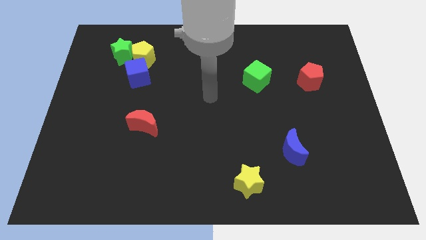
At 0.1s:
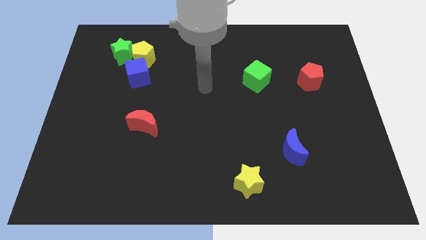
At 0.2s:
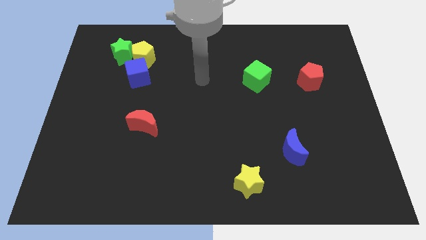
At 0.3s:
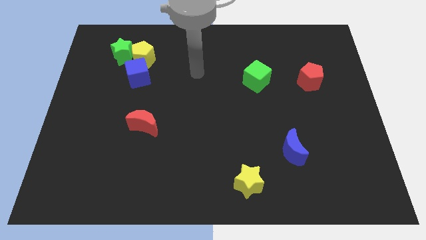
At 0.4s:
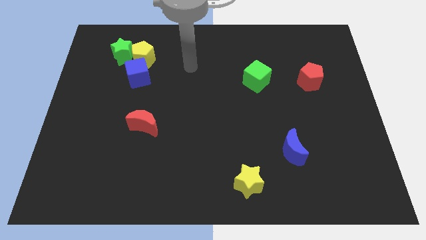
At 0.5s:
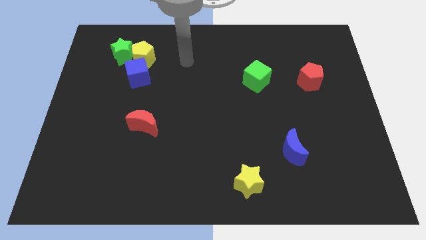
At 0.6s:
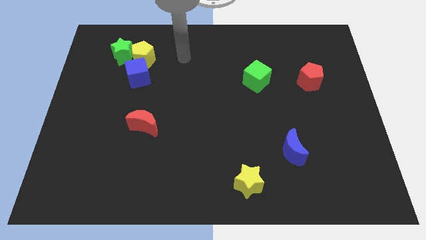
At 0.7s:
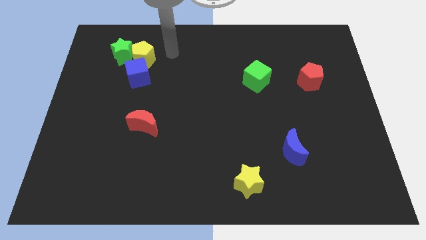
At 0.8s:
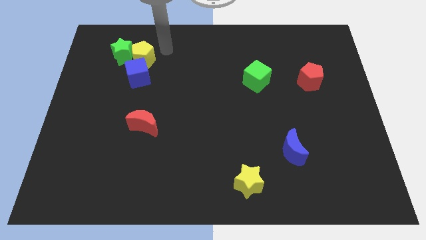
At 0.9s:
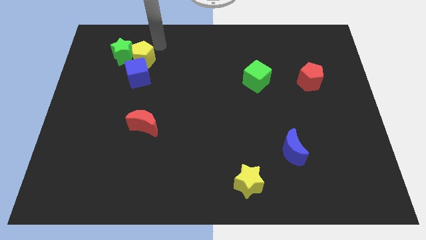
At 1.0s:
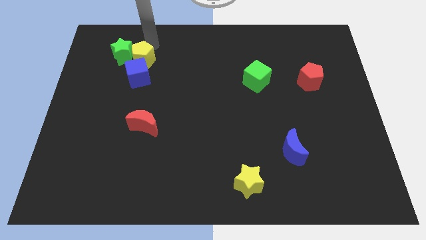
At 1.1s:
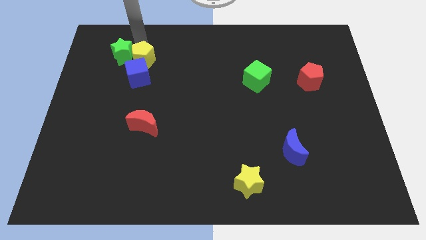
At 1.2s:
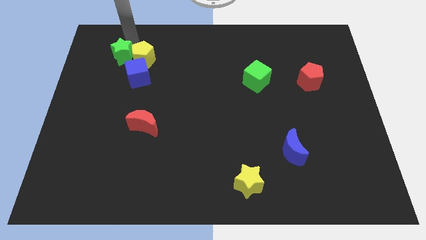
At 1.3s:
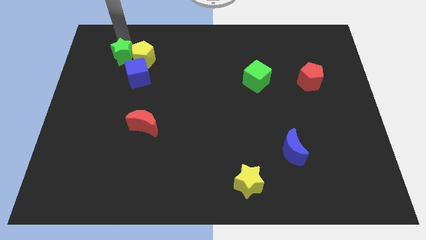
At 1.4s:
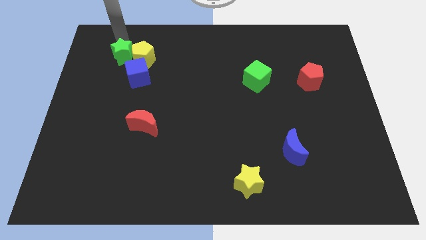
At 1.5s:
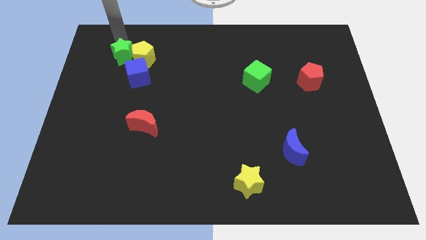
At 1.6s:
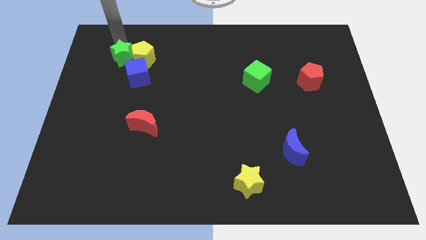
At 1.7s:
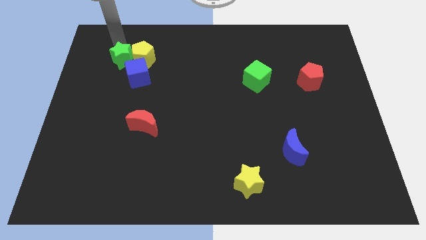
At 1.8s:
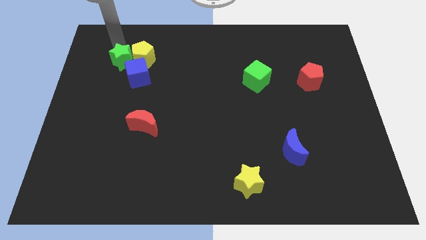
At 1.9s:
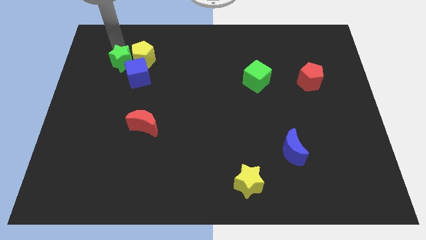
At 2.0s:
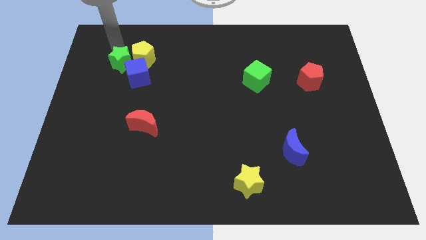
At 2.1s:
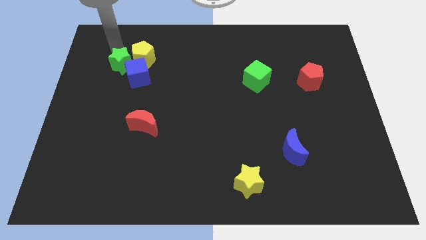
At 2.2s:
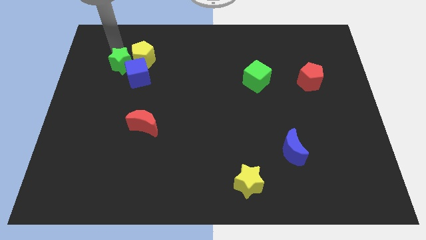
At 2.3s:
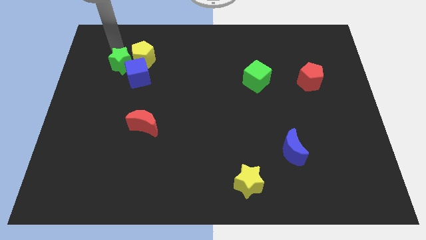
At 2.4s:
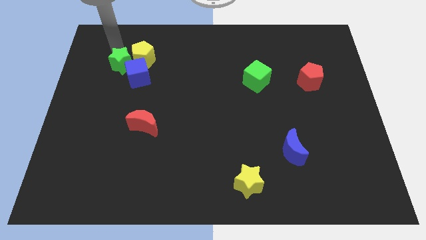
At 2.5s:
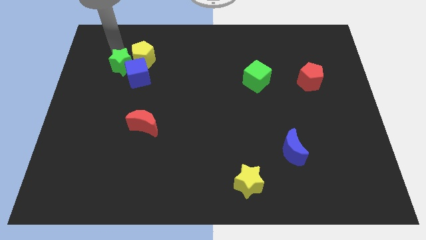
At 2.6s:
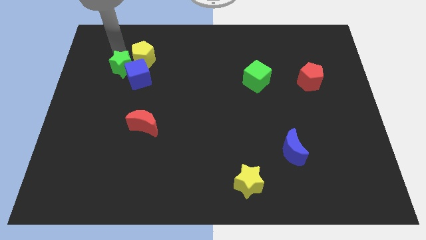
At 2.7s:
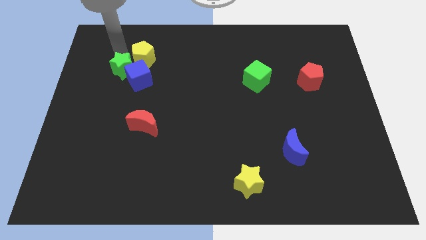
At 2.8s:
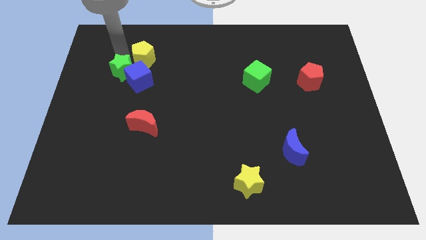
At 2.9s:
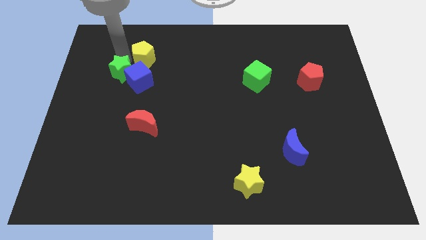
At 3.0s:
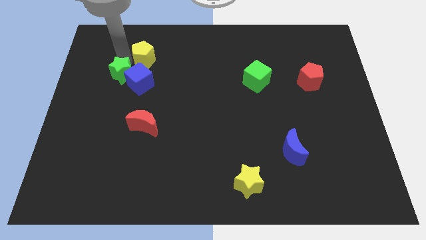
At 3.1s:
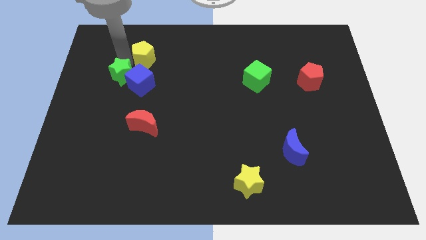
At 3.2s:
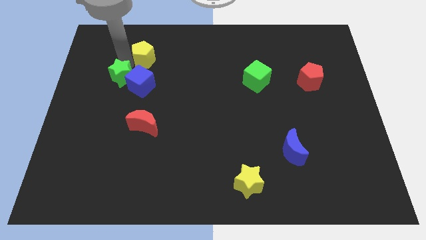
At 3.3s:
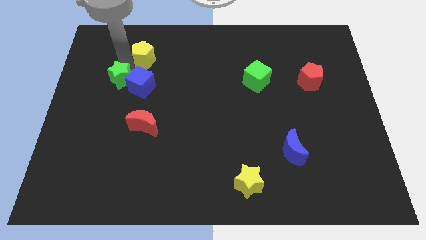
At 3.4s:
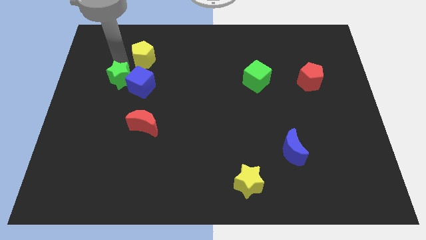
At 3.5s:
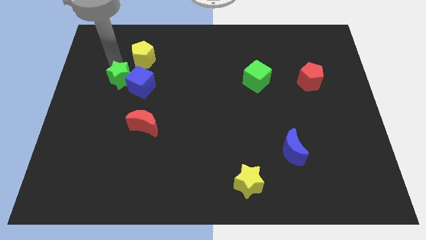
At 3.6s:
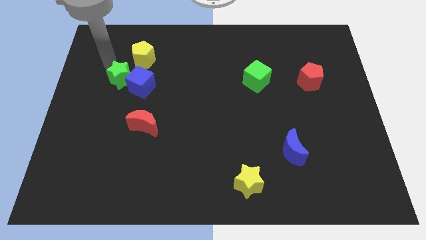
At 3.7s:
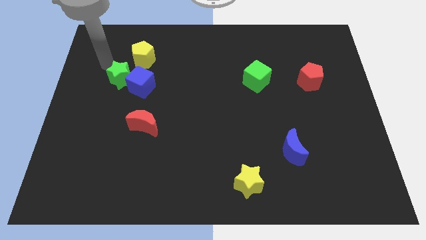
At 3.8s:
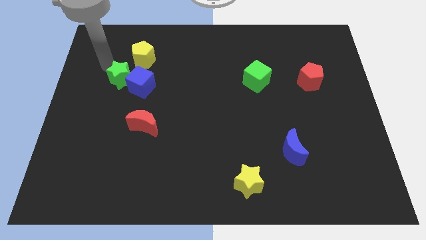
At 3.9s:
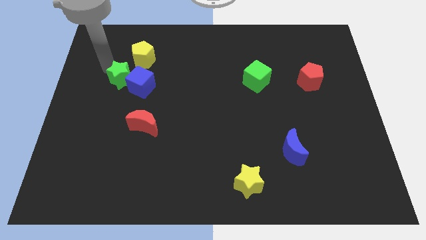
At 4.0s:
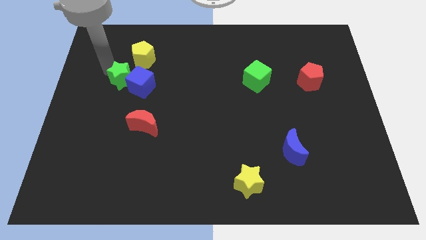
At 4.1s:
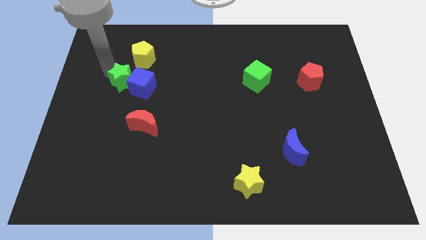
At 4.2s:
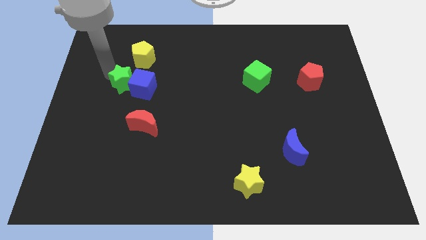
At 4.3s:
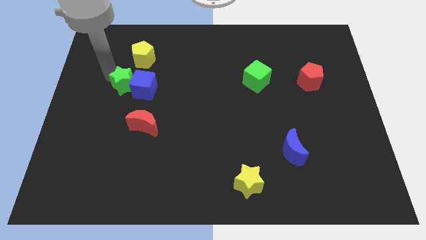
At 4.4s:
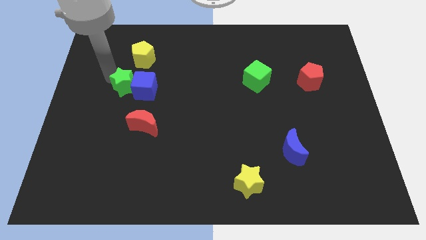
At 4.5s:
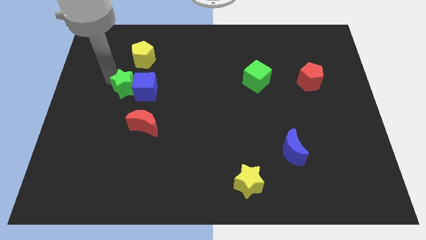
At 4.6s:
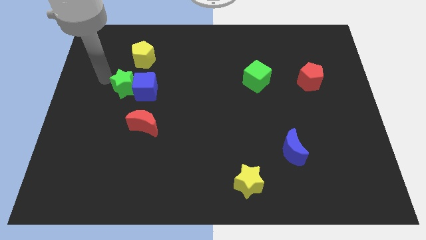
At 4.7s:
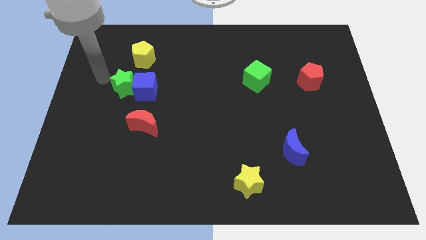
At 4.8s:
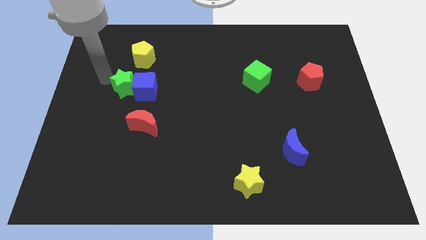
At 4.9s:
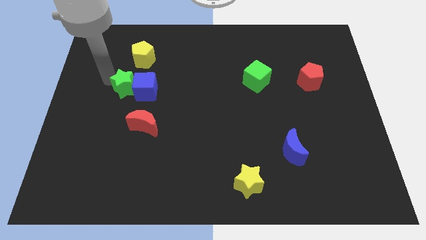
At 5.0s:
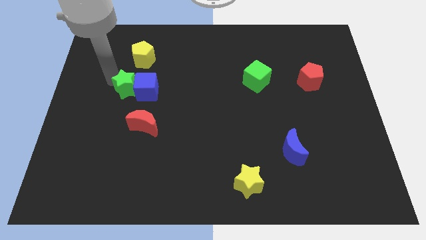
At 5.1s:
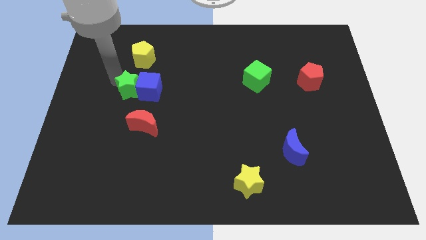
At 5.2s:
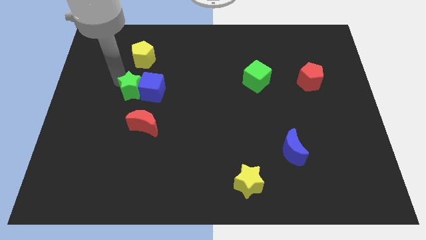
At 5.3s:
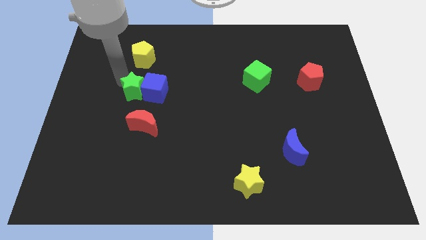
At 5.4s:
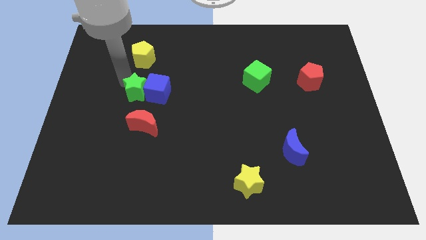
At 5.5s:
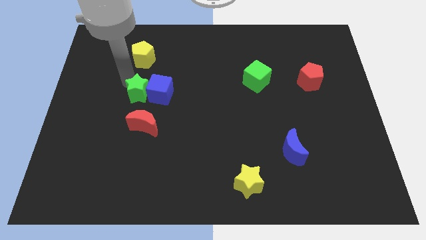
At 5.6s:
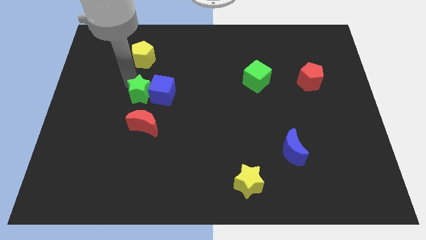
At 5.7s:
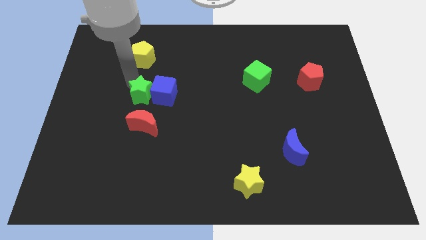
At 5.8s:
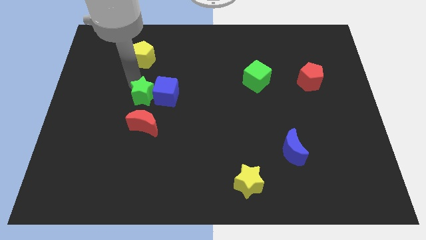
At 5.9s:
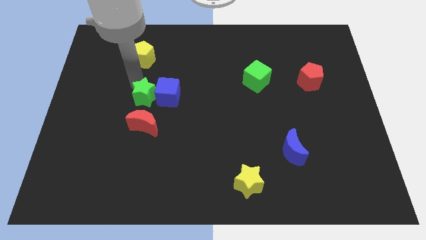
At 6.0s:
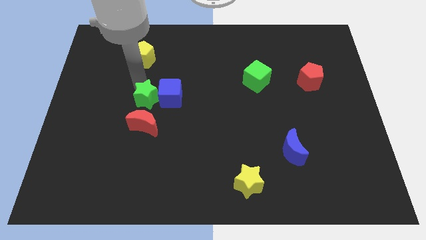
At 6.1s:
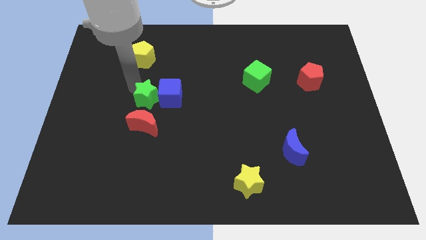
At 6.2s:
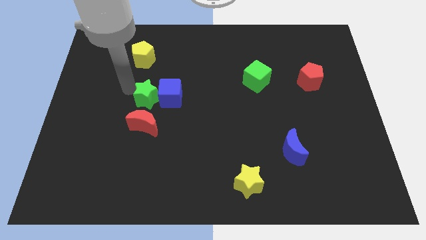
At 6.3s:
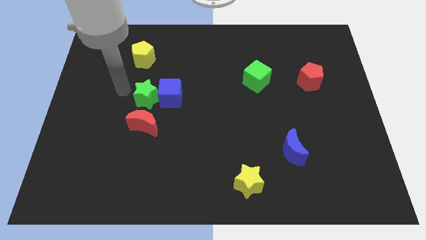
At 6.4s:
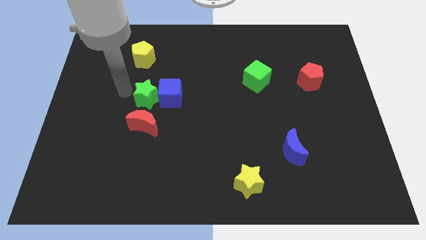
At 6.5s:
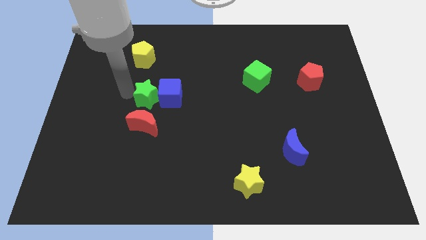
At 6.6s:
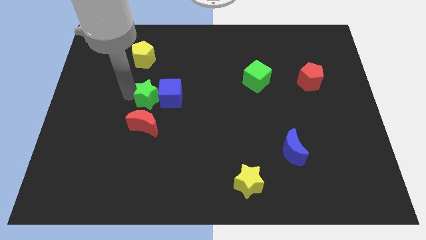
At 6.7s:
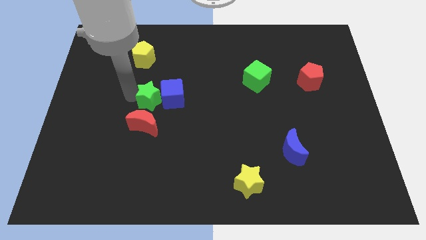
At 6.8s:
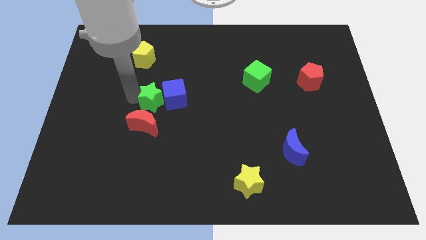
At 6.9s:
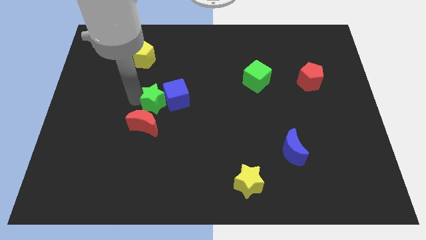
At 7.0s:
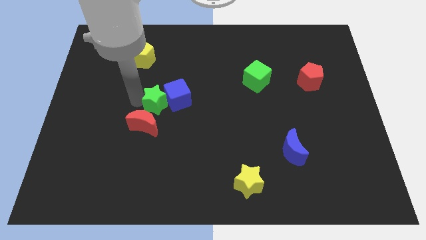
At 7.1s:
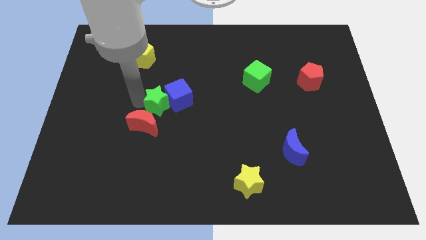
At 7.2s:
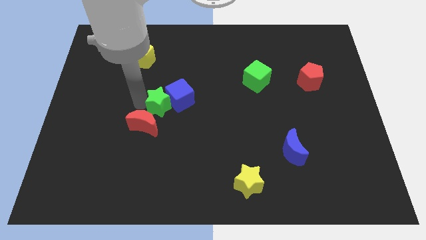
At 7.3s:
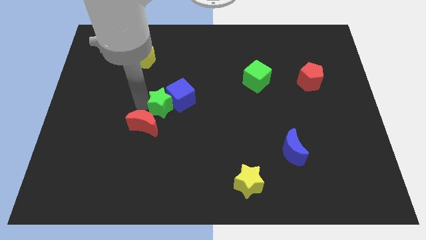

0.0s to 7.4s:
move the green star down and right diagonally

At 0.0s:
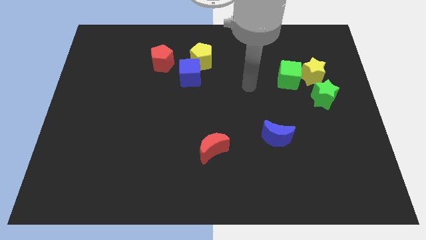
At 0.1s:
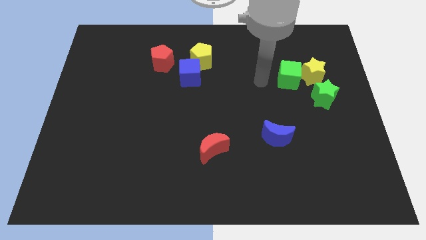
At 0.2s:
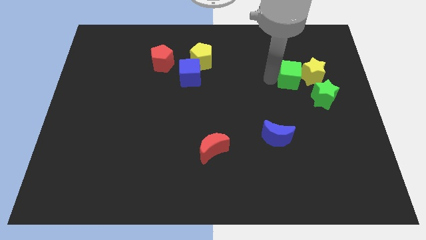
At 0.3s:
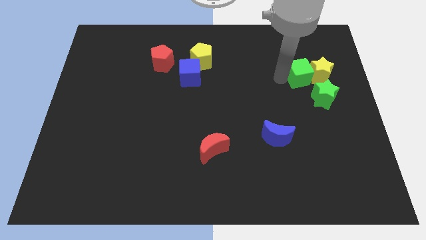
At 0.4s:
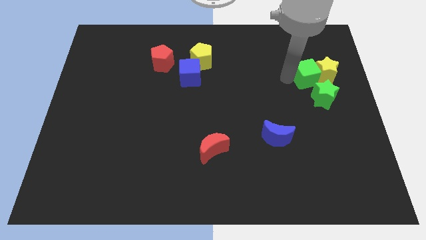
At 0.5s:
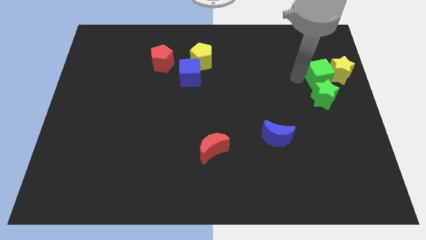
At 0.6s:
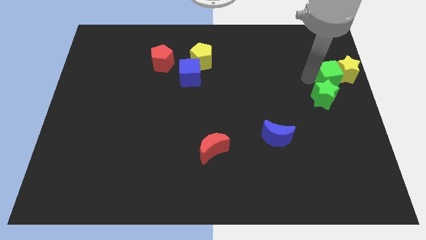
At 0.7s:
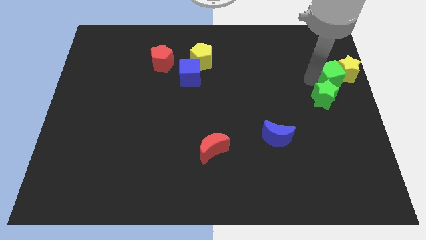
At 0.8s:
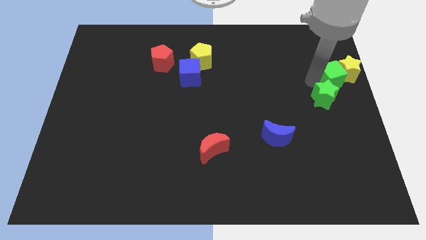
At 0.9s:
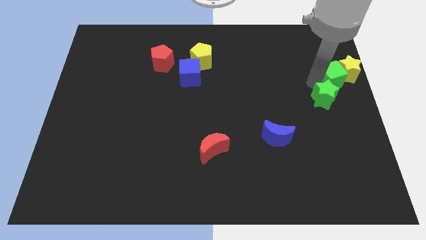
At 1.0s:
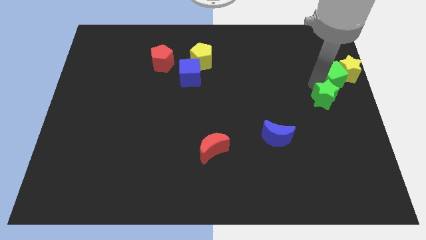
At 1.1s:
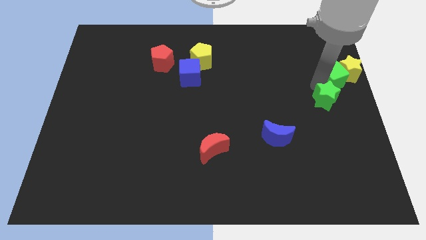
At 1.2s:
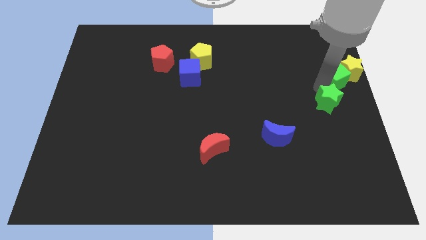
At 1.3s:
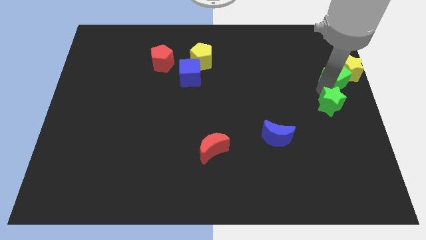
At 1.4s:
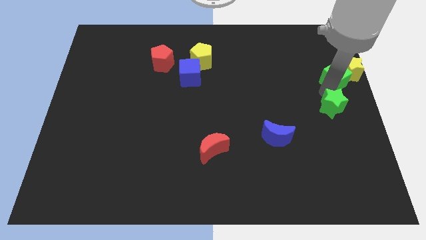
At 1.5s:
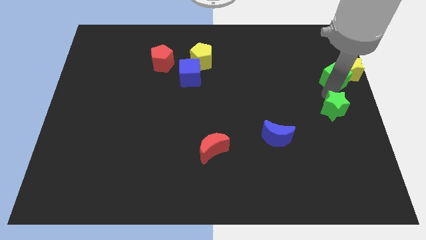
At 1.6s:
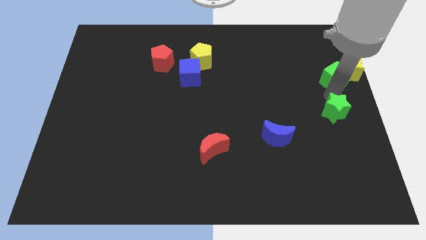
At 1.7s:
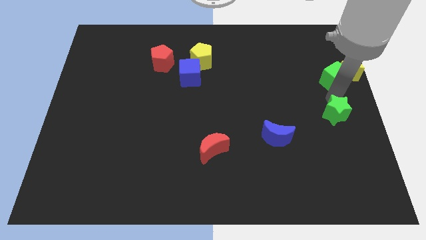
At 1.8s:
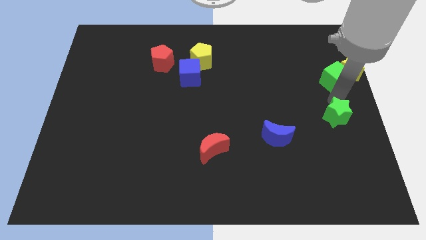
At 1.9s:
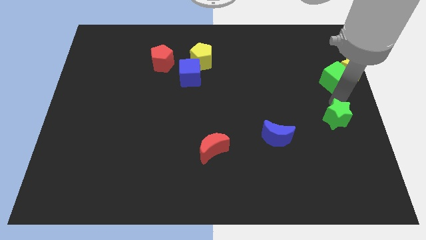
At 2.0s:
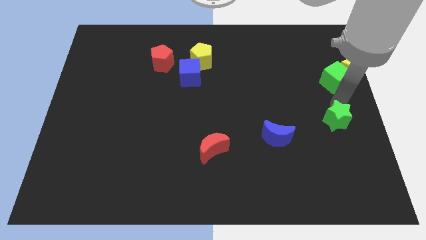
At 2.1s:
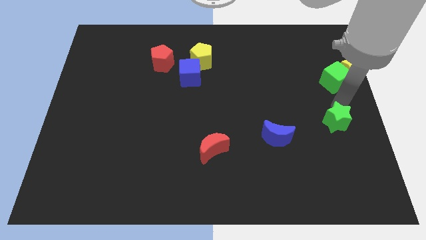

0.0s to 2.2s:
move the green star downwards slightly
